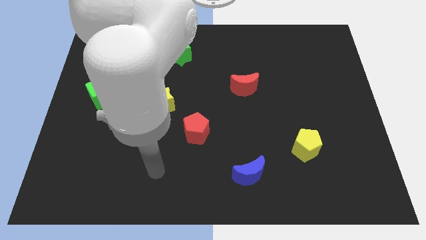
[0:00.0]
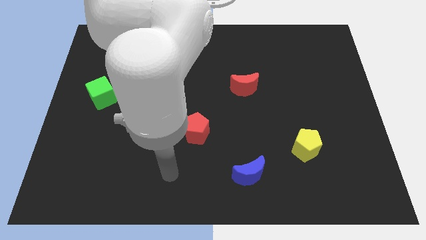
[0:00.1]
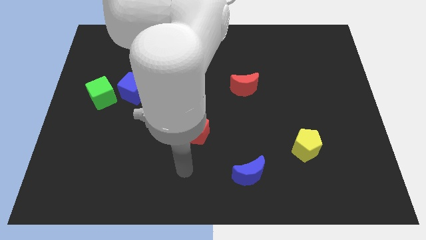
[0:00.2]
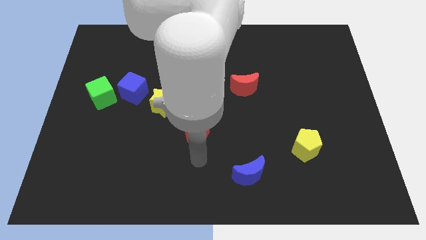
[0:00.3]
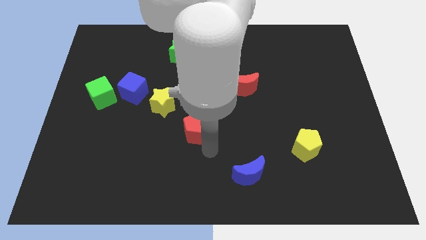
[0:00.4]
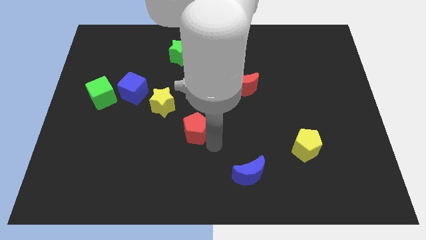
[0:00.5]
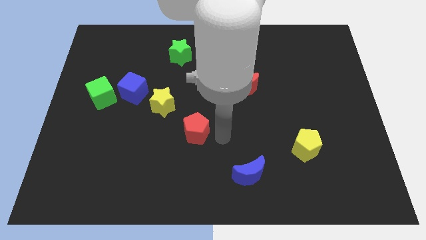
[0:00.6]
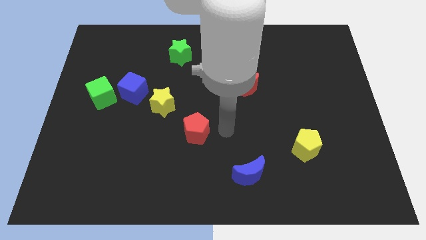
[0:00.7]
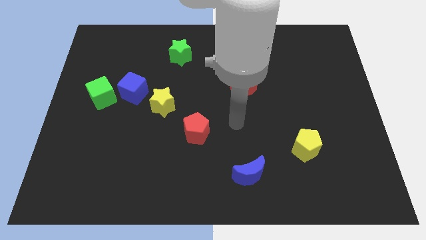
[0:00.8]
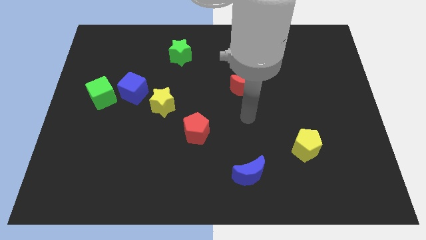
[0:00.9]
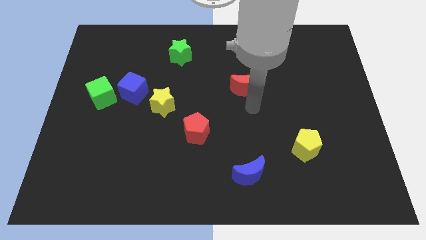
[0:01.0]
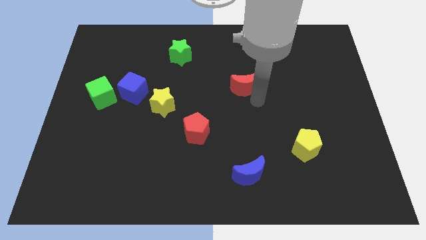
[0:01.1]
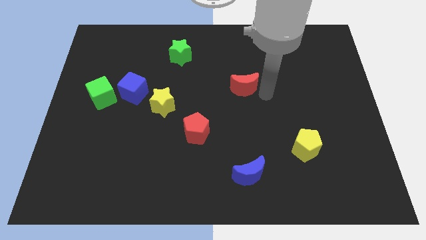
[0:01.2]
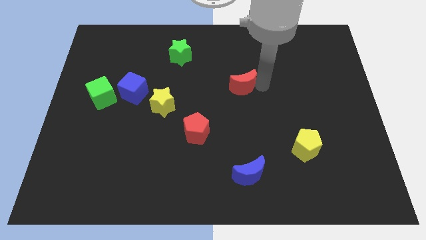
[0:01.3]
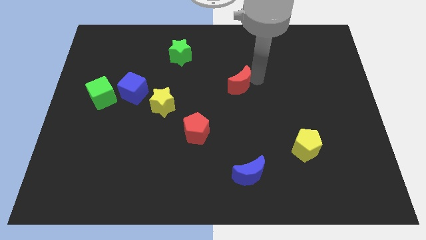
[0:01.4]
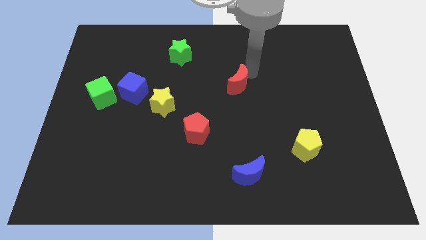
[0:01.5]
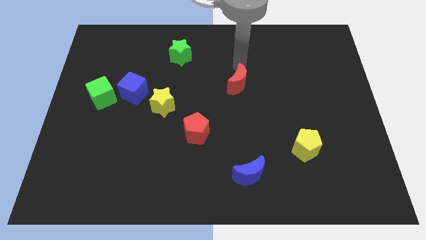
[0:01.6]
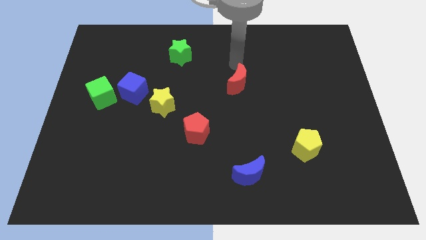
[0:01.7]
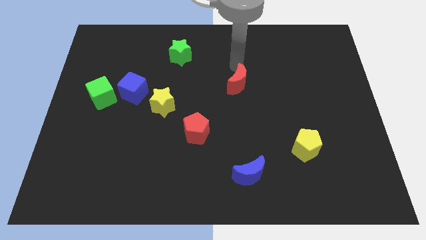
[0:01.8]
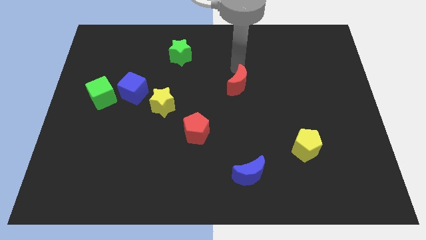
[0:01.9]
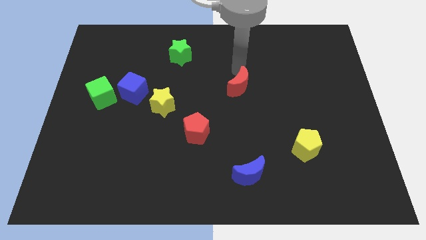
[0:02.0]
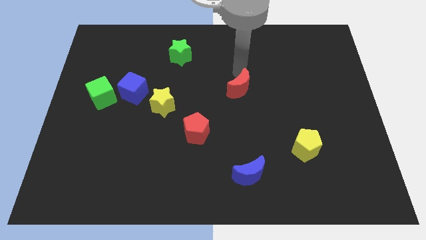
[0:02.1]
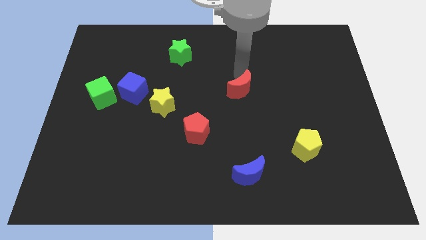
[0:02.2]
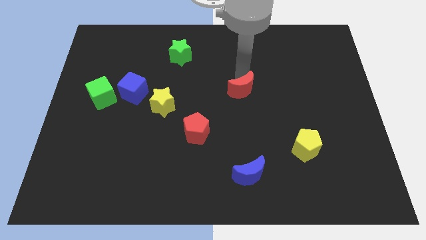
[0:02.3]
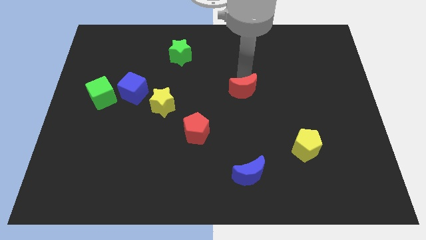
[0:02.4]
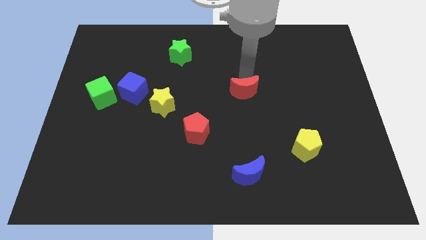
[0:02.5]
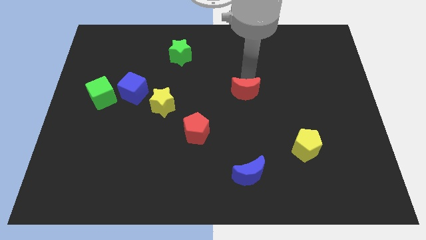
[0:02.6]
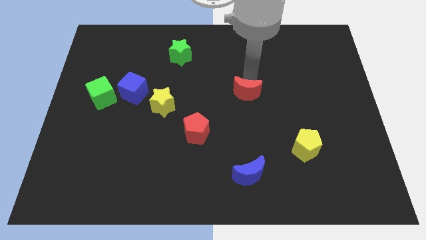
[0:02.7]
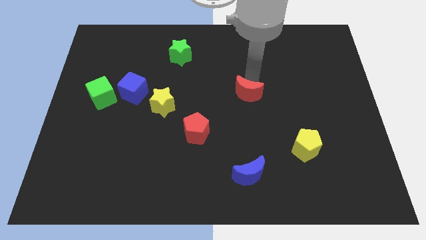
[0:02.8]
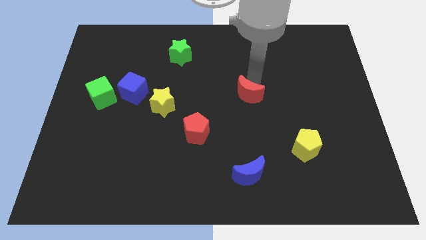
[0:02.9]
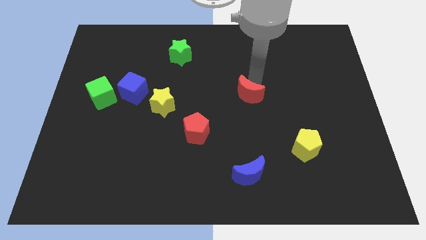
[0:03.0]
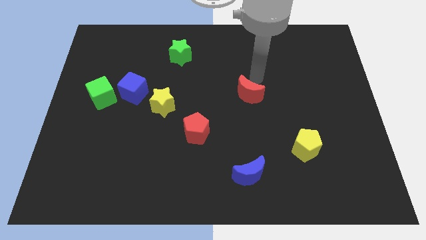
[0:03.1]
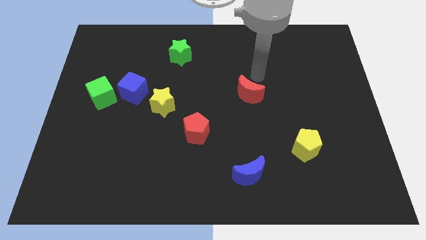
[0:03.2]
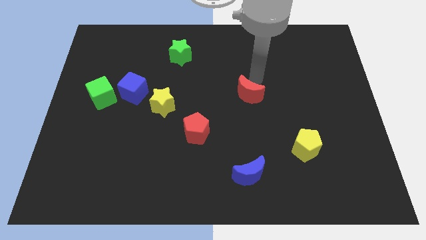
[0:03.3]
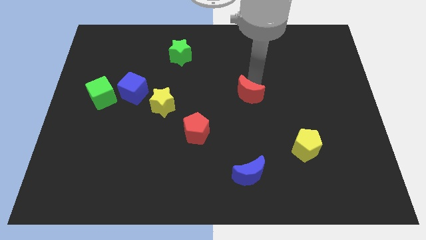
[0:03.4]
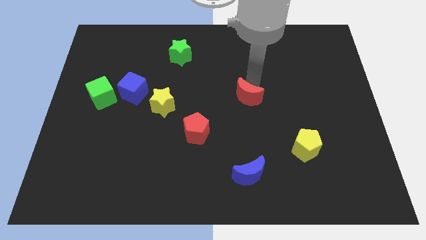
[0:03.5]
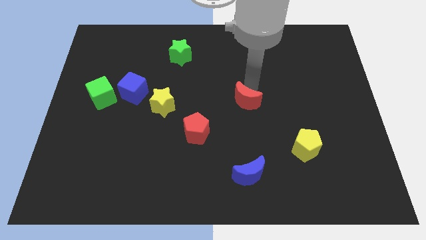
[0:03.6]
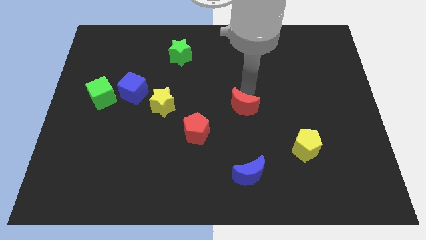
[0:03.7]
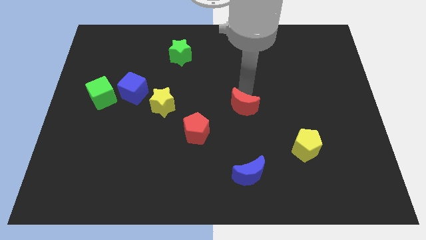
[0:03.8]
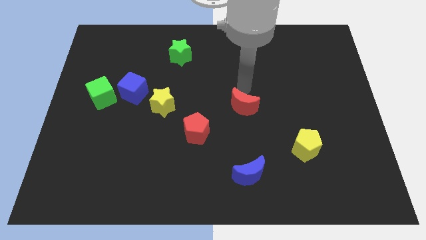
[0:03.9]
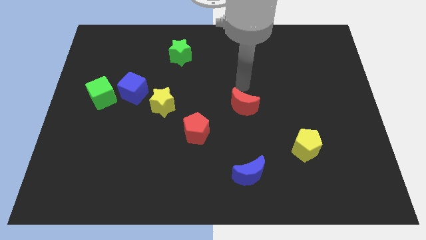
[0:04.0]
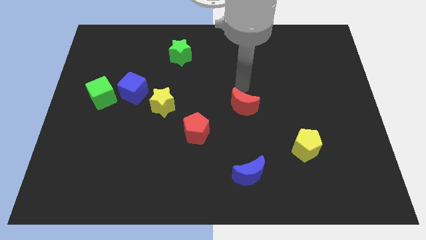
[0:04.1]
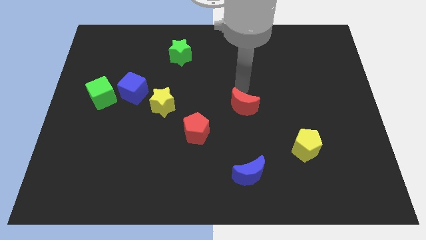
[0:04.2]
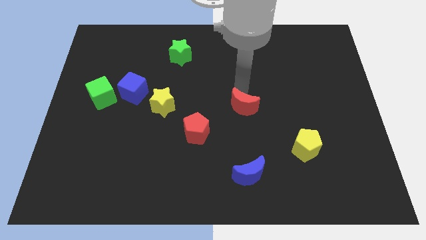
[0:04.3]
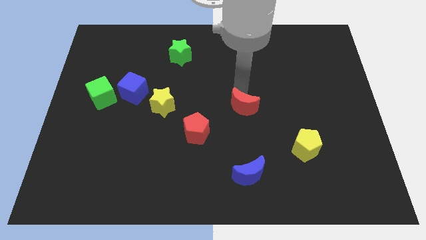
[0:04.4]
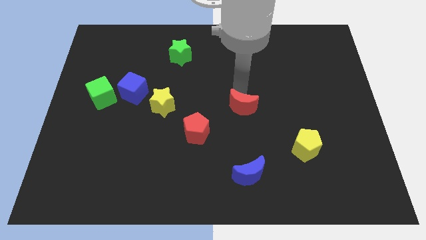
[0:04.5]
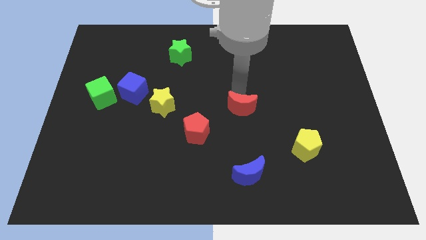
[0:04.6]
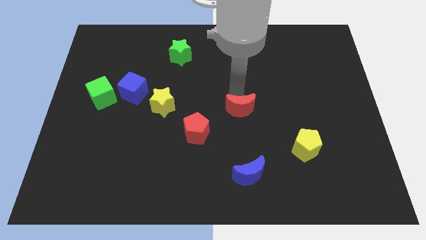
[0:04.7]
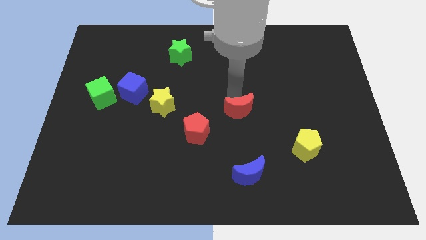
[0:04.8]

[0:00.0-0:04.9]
push the red moon a little bit down

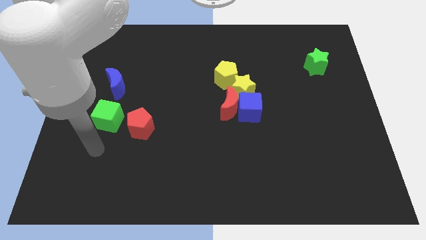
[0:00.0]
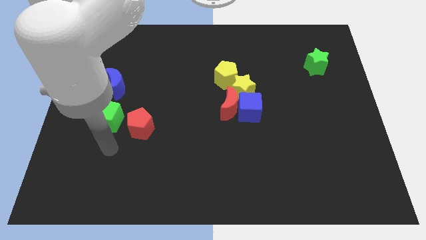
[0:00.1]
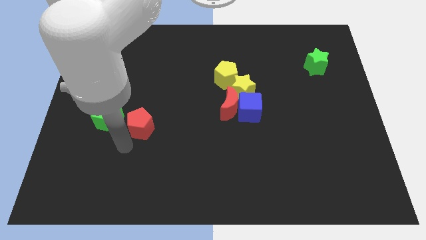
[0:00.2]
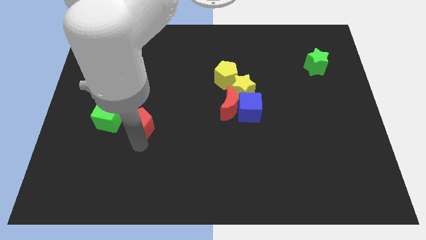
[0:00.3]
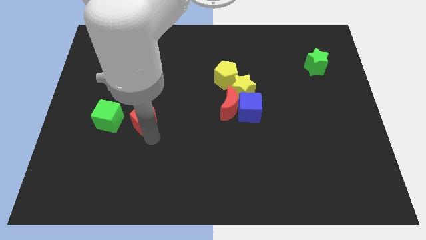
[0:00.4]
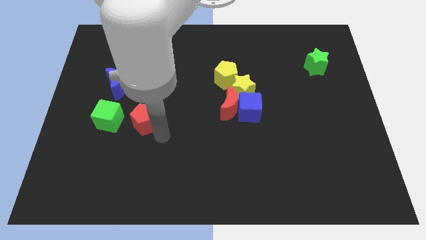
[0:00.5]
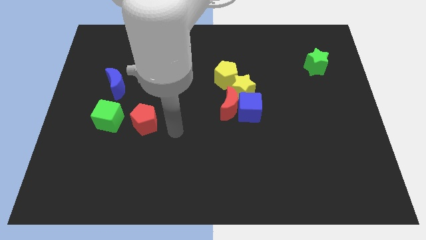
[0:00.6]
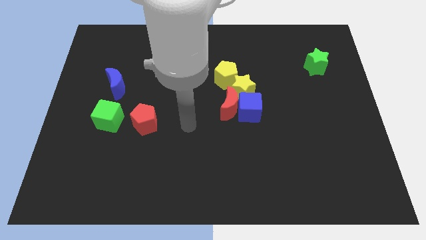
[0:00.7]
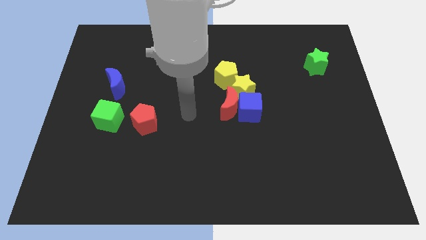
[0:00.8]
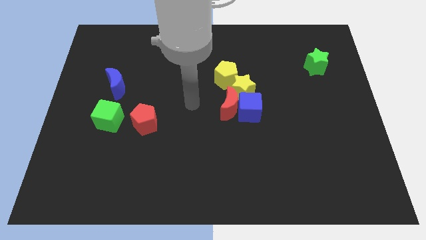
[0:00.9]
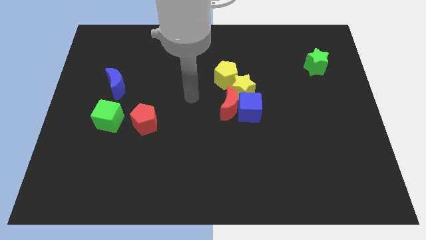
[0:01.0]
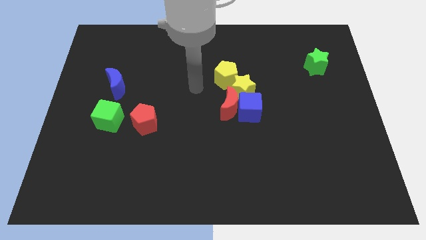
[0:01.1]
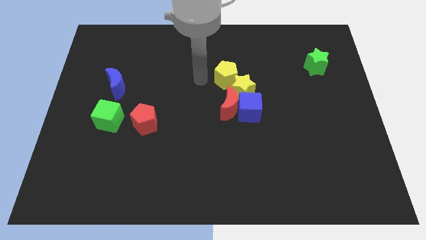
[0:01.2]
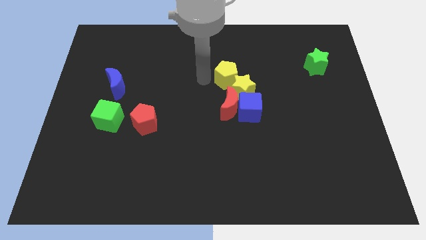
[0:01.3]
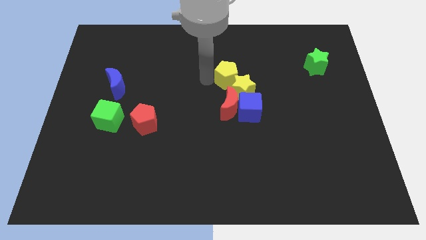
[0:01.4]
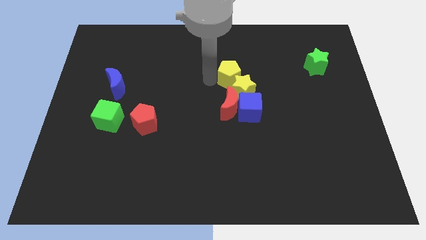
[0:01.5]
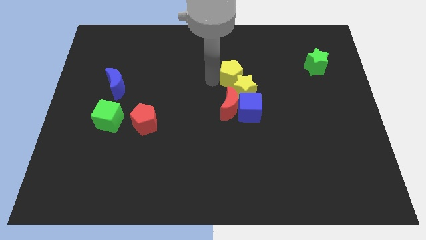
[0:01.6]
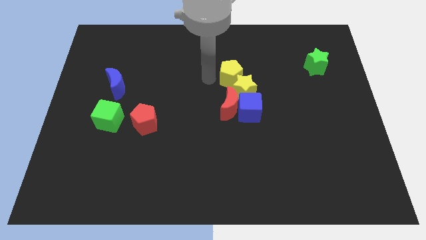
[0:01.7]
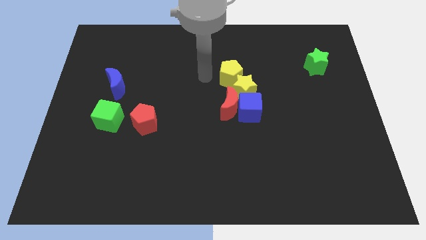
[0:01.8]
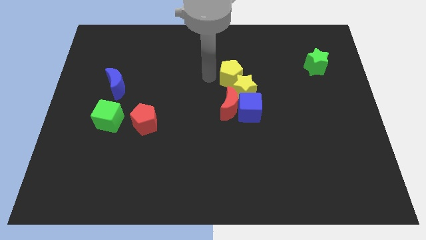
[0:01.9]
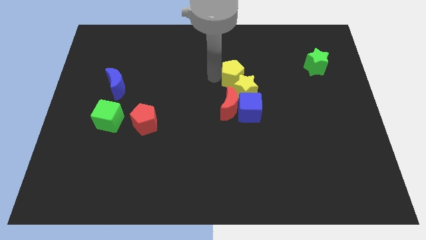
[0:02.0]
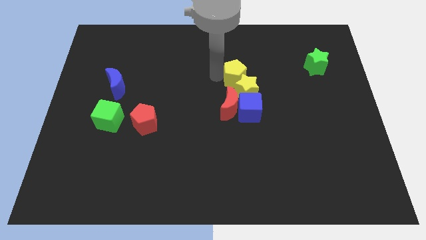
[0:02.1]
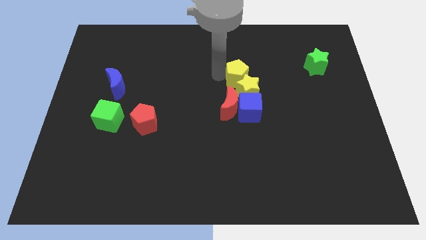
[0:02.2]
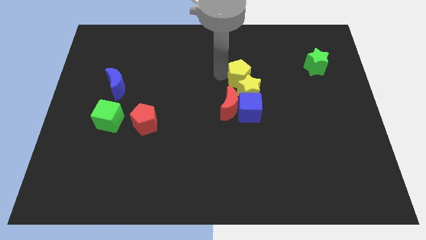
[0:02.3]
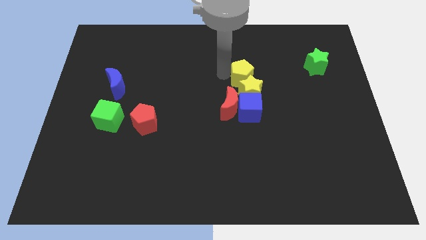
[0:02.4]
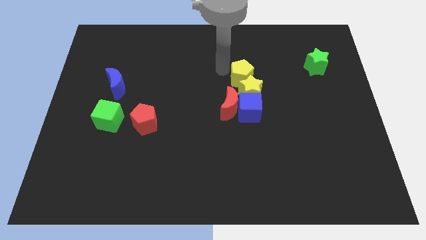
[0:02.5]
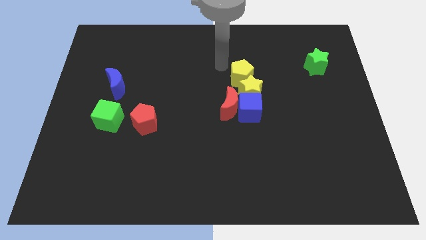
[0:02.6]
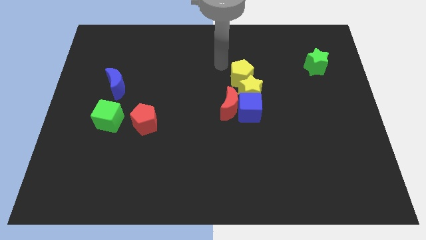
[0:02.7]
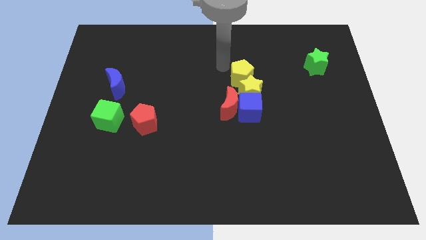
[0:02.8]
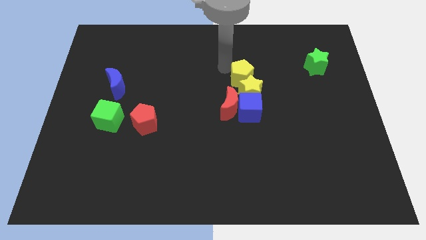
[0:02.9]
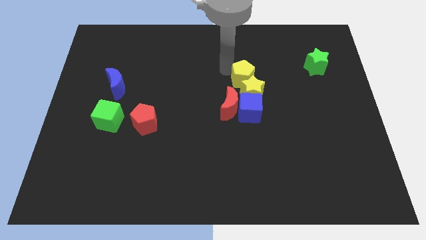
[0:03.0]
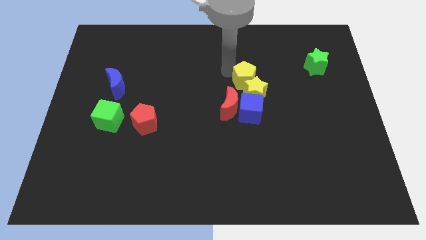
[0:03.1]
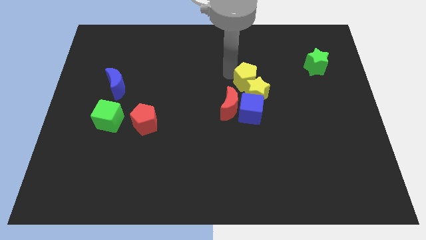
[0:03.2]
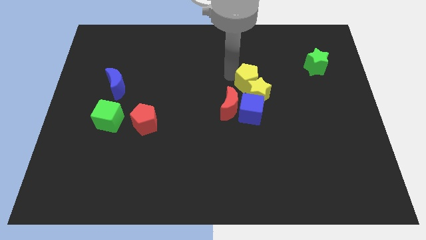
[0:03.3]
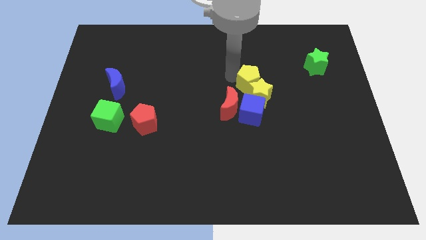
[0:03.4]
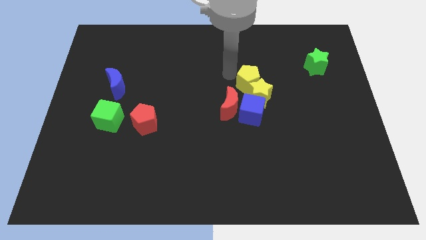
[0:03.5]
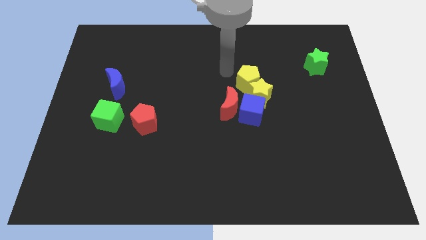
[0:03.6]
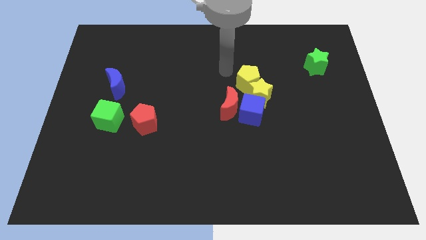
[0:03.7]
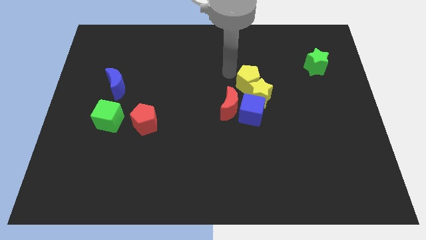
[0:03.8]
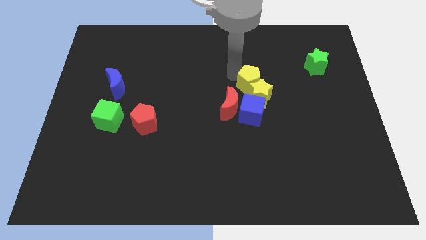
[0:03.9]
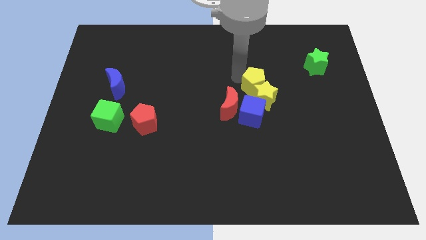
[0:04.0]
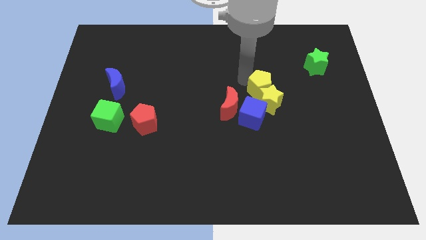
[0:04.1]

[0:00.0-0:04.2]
slightly push the yellow pentagon diagonally downwards and right
